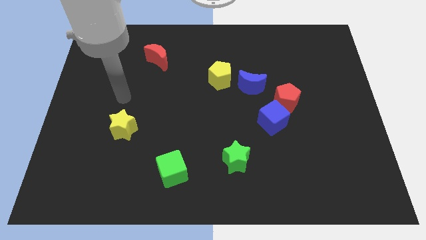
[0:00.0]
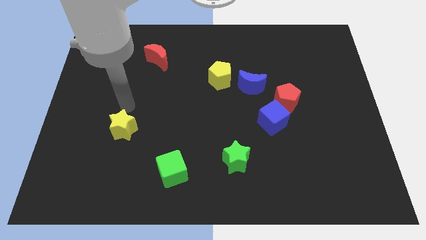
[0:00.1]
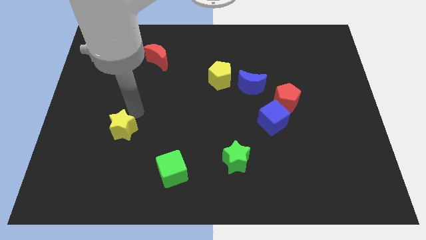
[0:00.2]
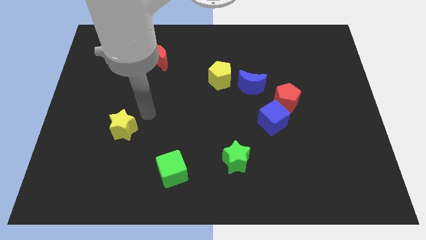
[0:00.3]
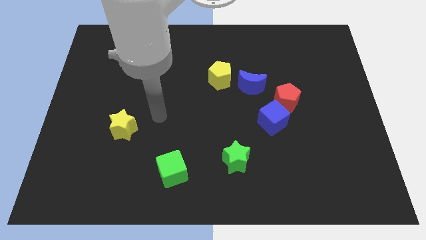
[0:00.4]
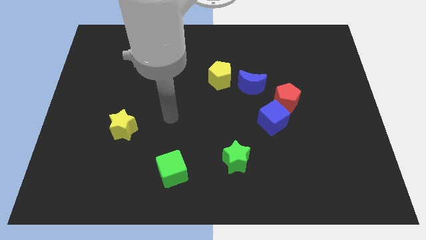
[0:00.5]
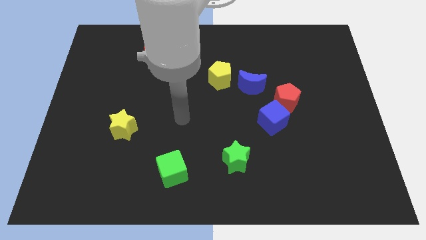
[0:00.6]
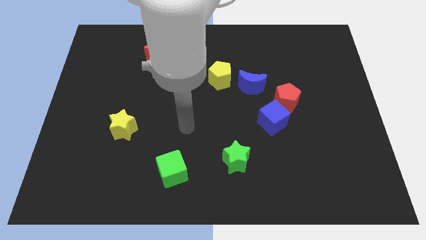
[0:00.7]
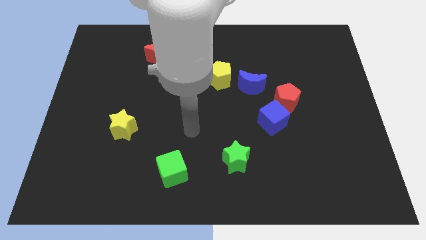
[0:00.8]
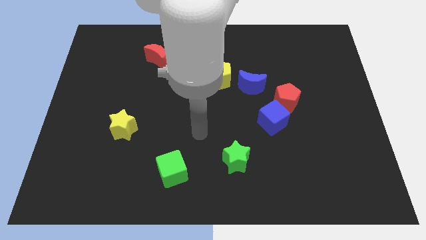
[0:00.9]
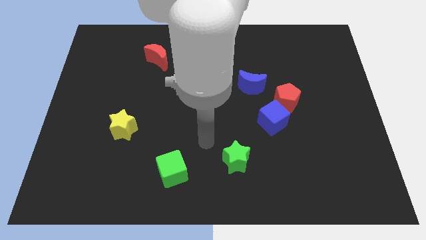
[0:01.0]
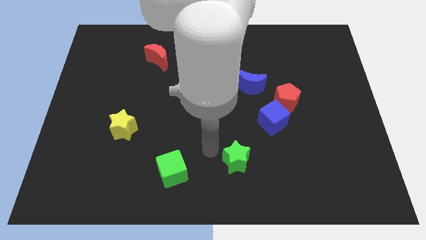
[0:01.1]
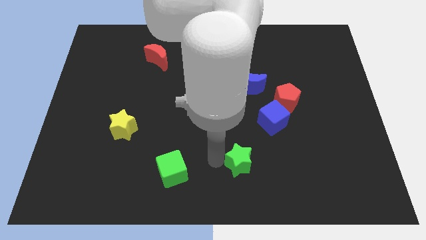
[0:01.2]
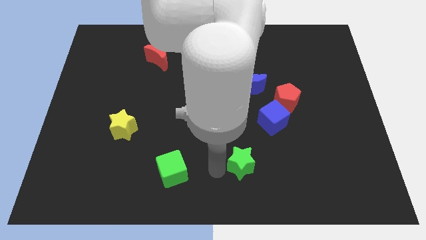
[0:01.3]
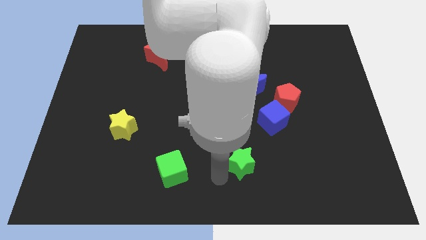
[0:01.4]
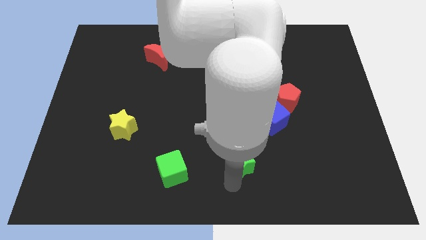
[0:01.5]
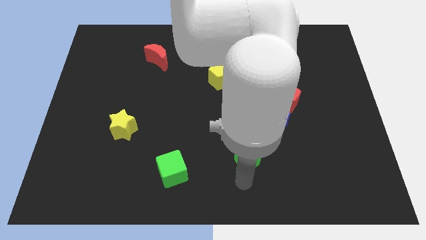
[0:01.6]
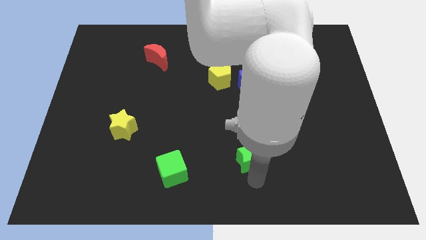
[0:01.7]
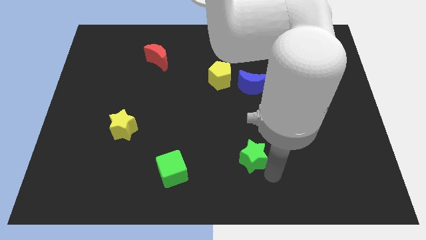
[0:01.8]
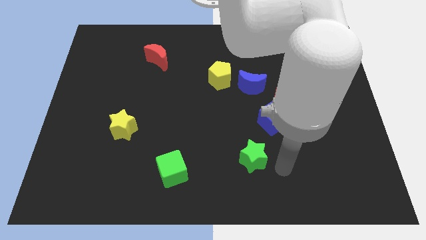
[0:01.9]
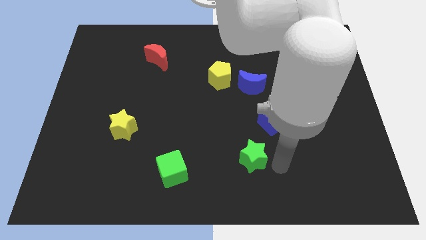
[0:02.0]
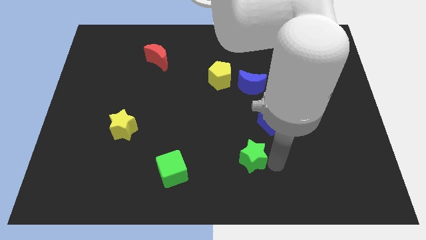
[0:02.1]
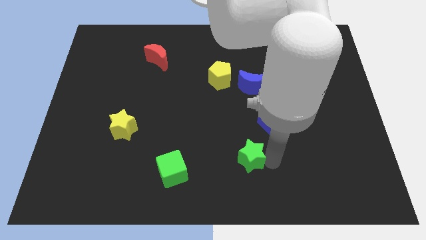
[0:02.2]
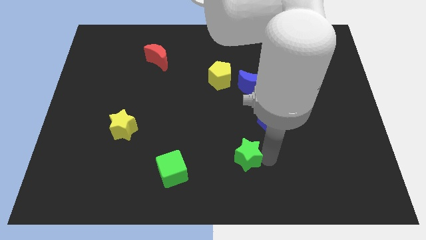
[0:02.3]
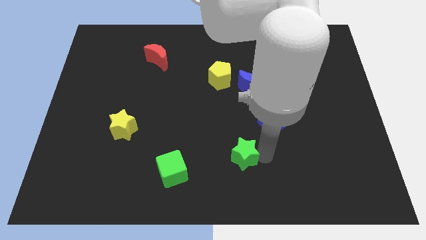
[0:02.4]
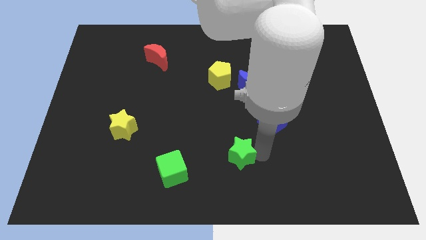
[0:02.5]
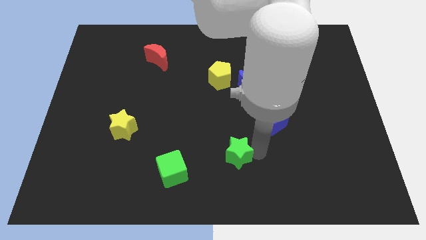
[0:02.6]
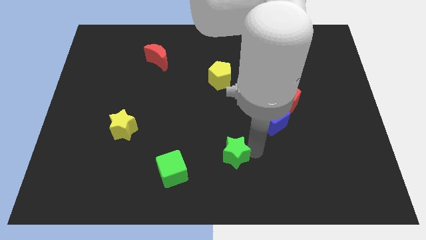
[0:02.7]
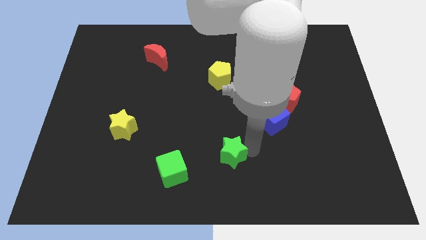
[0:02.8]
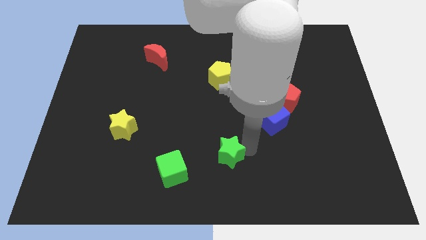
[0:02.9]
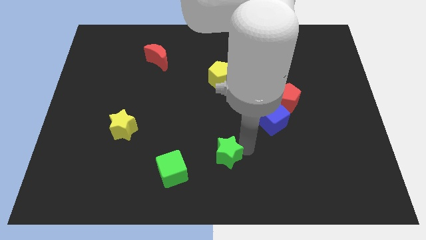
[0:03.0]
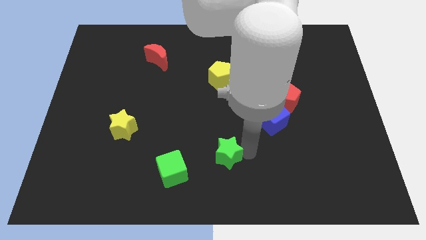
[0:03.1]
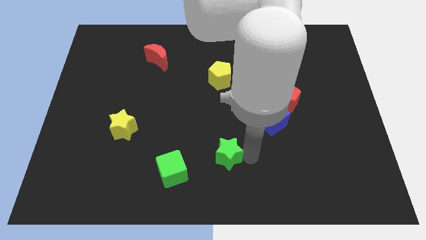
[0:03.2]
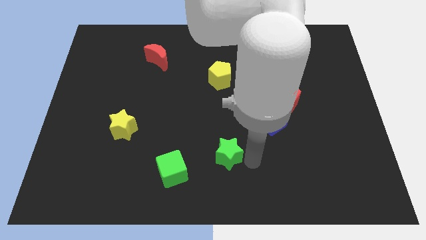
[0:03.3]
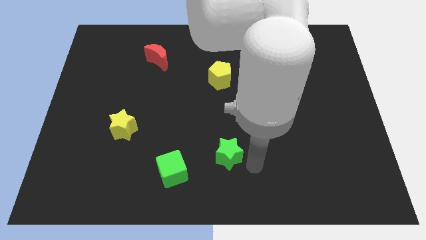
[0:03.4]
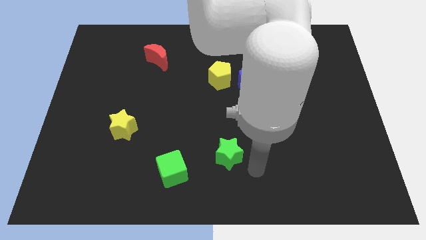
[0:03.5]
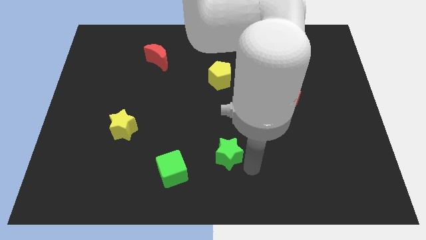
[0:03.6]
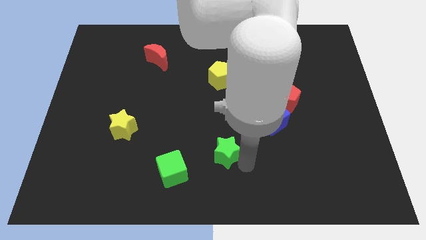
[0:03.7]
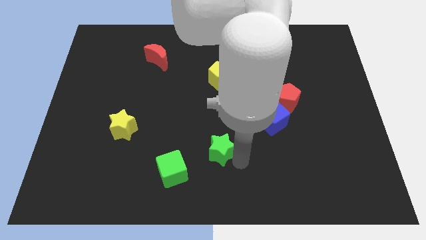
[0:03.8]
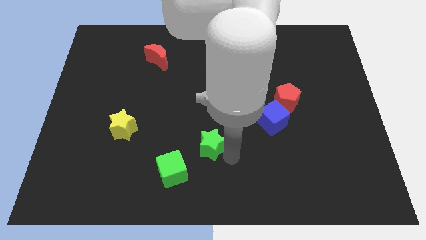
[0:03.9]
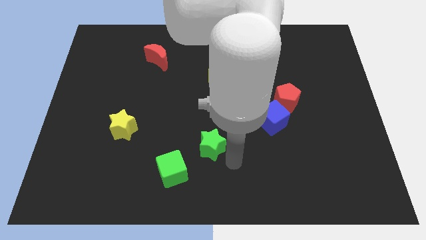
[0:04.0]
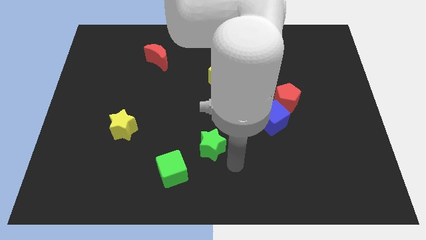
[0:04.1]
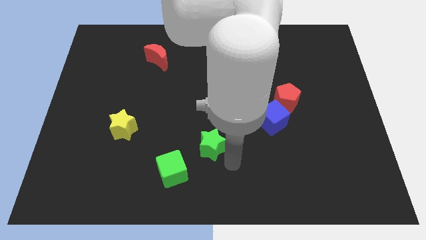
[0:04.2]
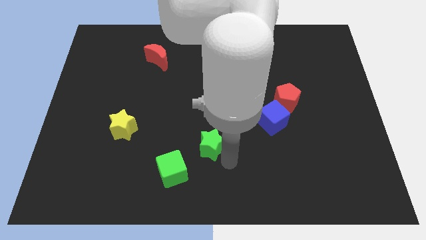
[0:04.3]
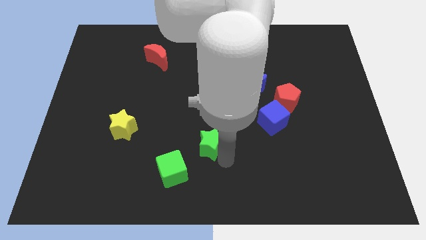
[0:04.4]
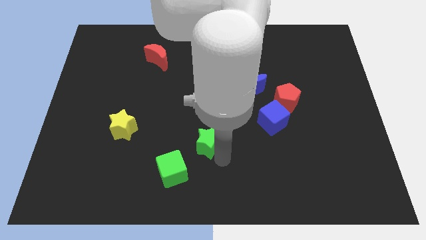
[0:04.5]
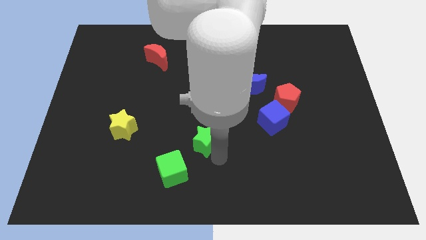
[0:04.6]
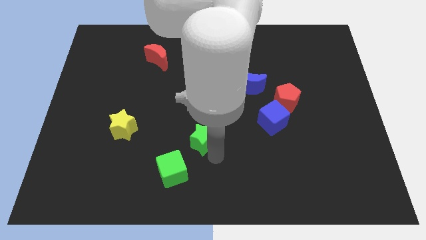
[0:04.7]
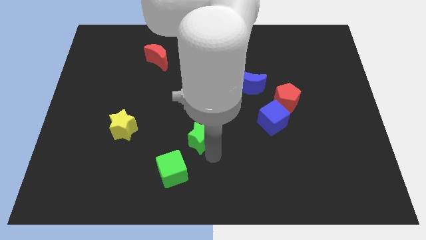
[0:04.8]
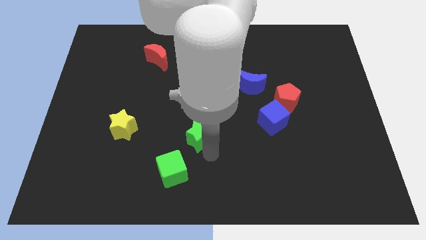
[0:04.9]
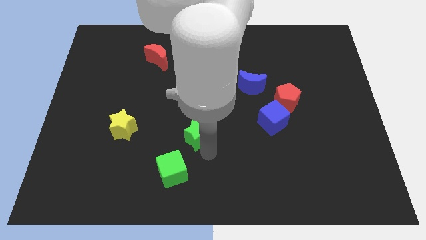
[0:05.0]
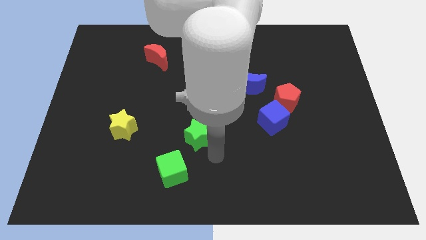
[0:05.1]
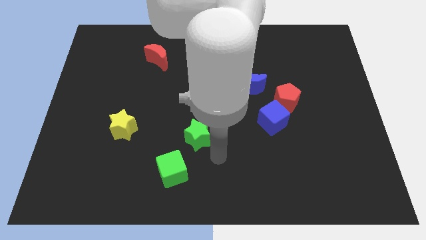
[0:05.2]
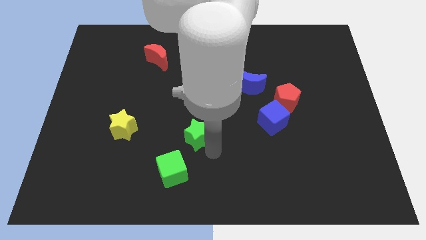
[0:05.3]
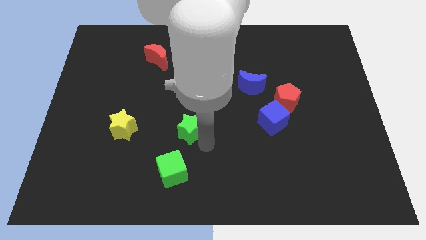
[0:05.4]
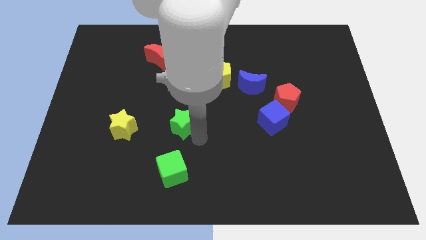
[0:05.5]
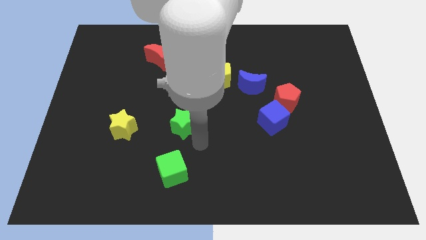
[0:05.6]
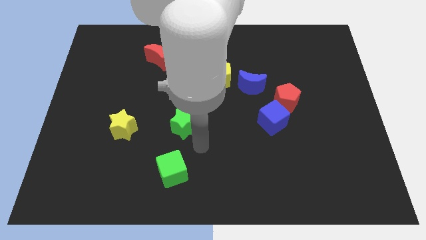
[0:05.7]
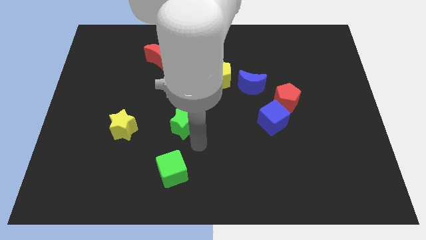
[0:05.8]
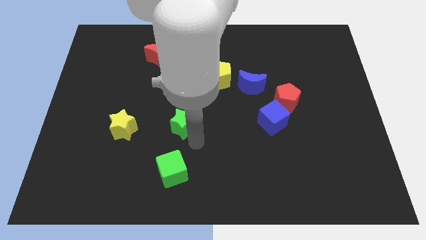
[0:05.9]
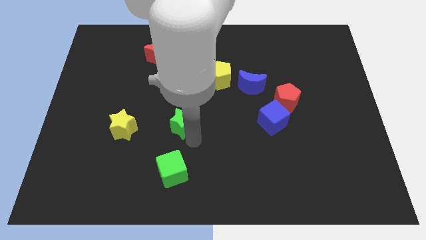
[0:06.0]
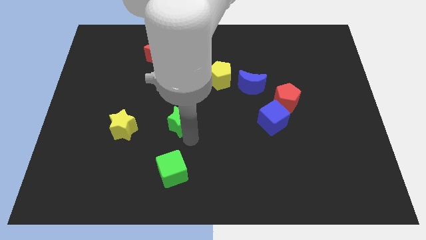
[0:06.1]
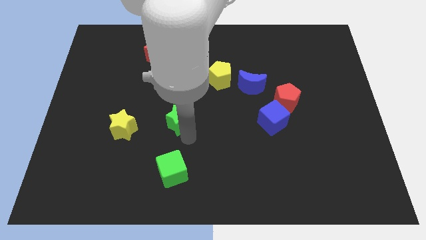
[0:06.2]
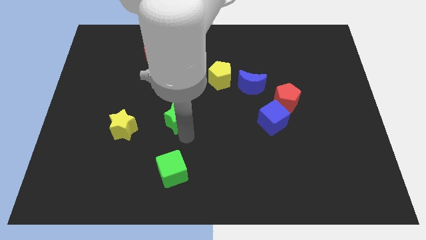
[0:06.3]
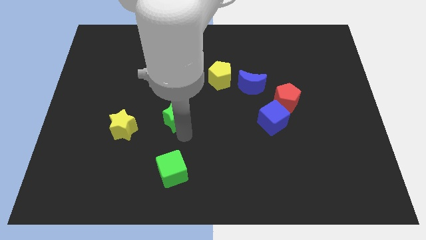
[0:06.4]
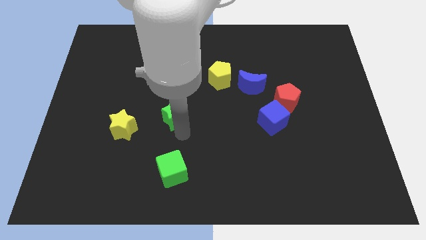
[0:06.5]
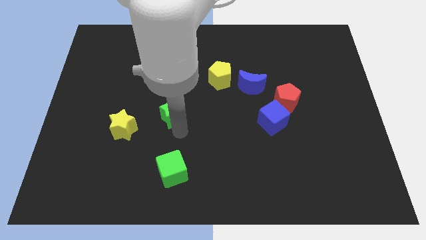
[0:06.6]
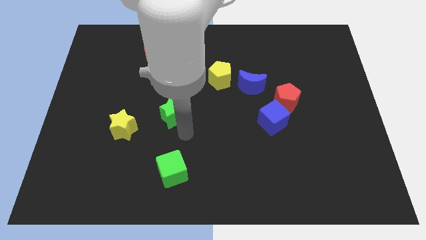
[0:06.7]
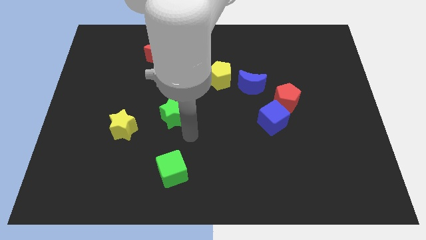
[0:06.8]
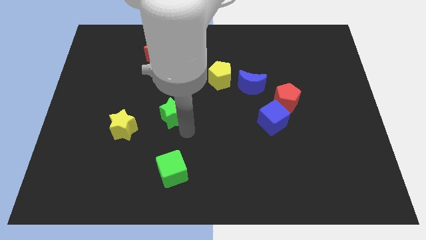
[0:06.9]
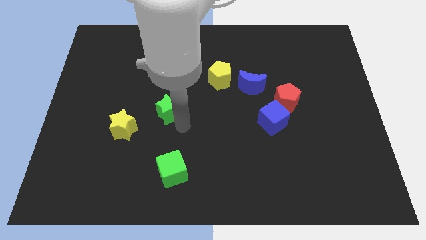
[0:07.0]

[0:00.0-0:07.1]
slide the green star up and left

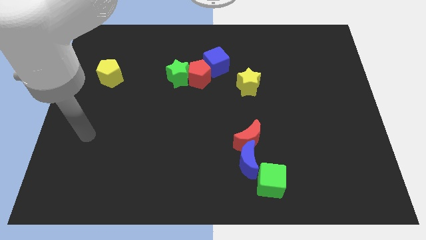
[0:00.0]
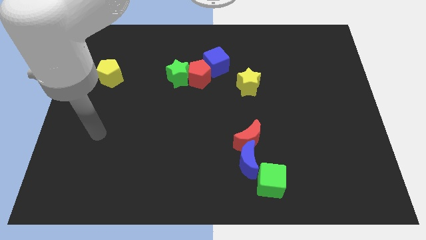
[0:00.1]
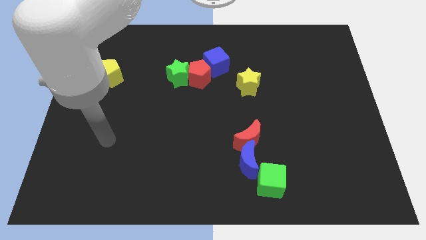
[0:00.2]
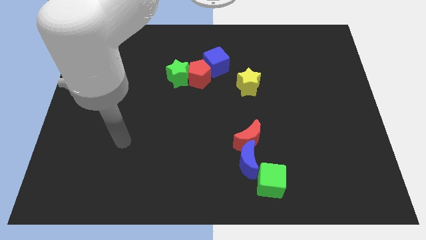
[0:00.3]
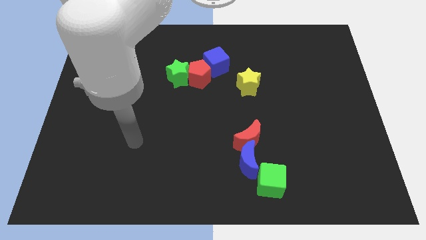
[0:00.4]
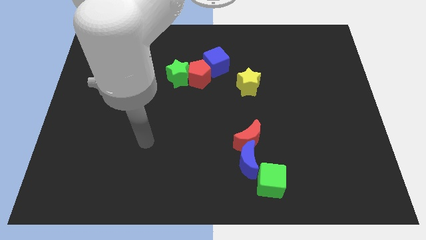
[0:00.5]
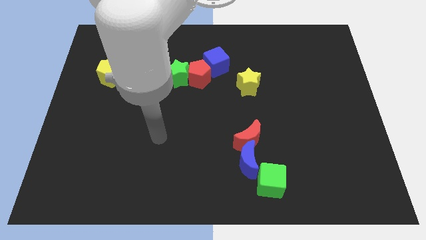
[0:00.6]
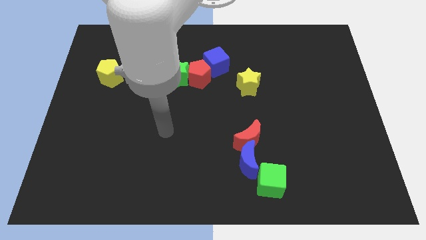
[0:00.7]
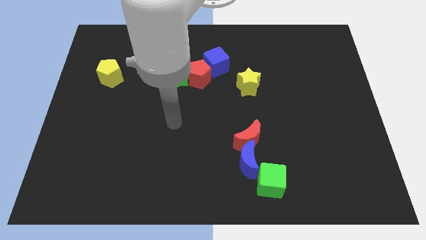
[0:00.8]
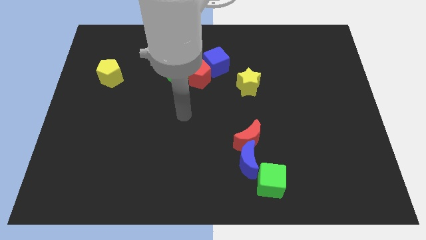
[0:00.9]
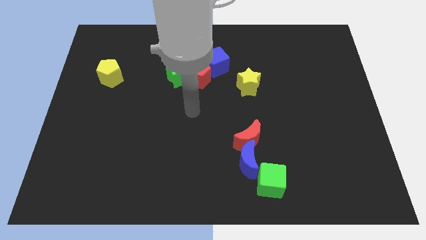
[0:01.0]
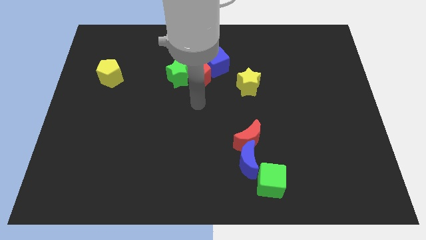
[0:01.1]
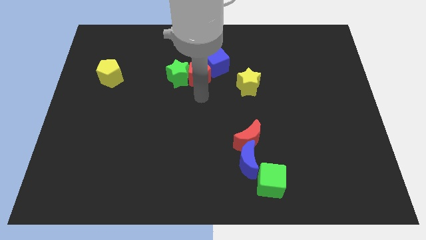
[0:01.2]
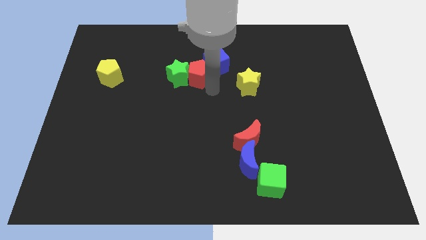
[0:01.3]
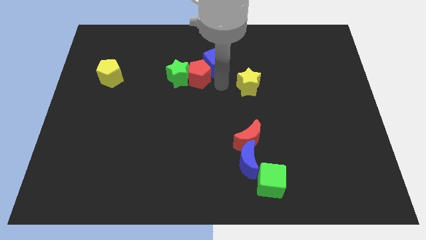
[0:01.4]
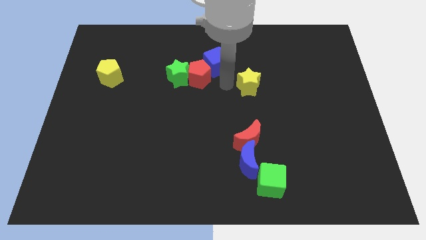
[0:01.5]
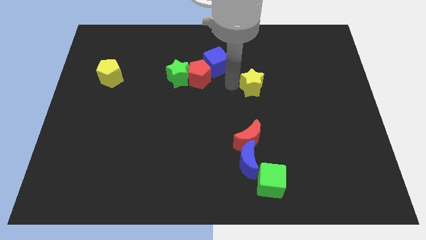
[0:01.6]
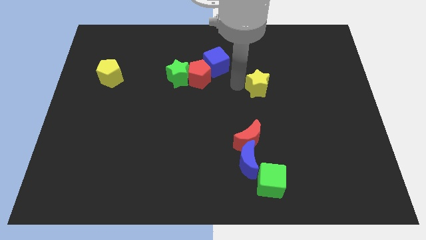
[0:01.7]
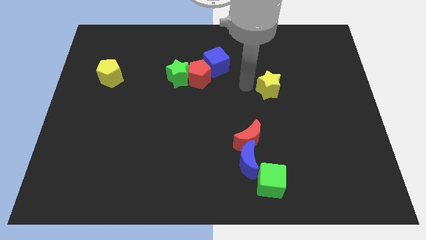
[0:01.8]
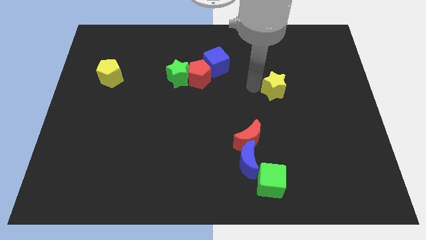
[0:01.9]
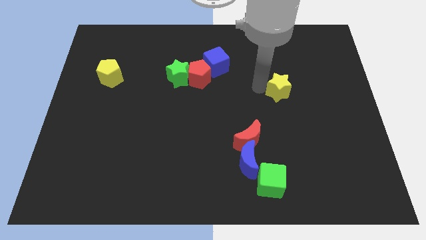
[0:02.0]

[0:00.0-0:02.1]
slightly push the yellow star right
